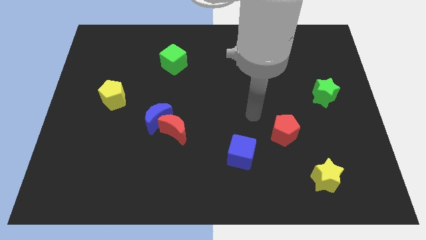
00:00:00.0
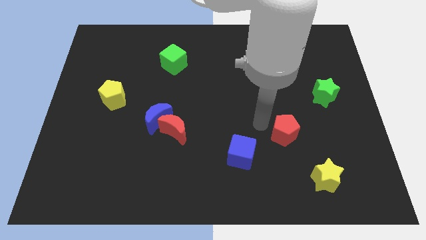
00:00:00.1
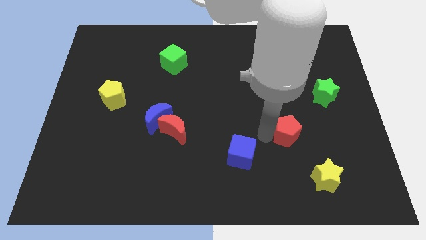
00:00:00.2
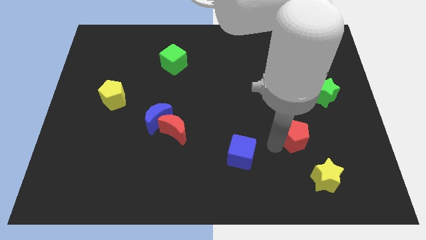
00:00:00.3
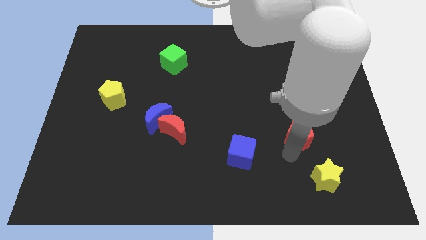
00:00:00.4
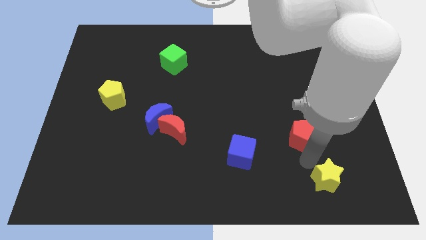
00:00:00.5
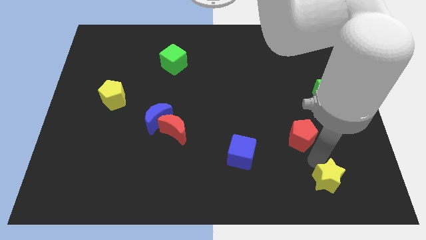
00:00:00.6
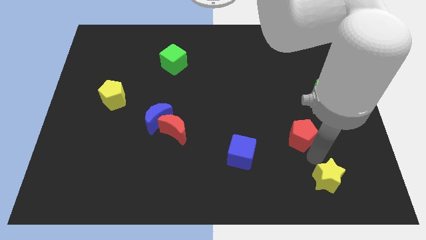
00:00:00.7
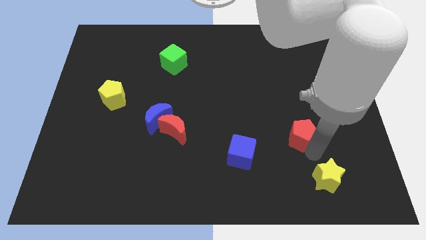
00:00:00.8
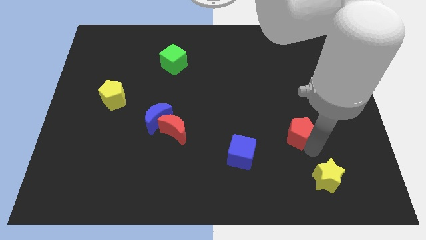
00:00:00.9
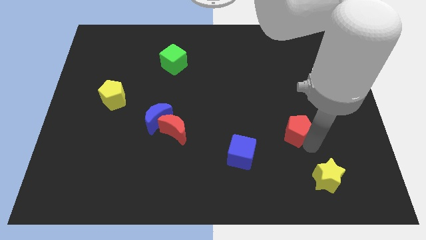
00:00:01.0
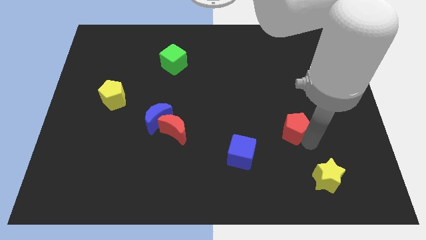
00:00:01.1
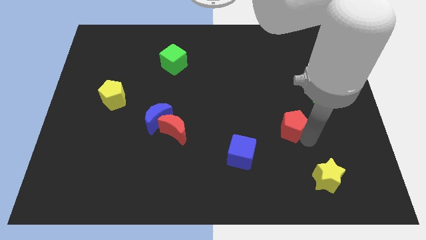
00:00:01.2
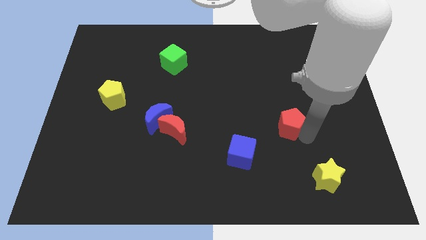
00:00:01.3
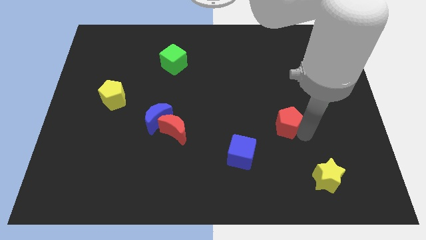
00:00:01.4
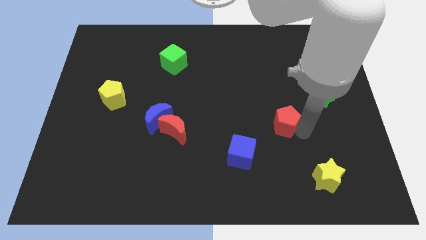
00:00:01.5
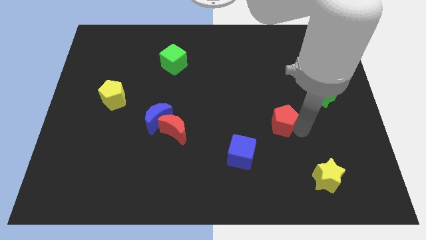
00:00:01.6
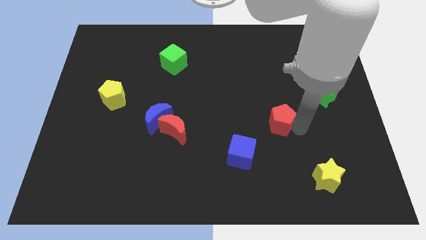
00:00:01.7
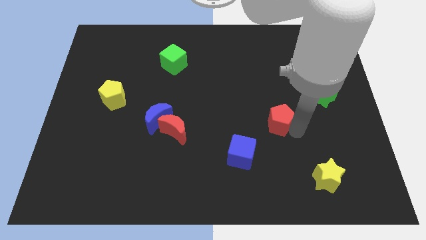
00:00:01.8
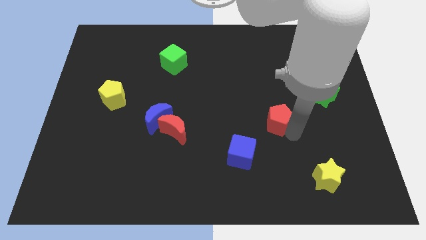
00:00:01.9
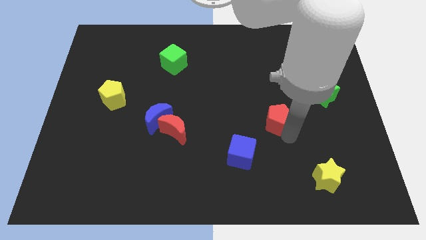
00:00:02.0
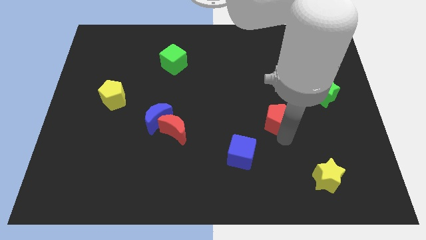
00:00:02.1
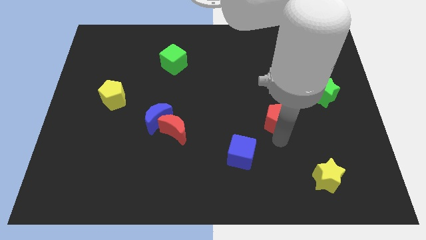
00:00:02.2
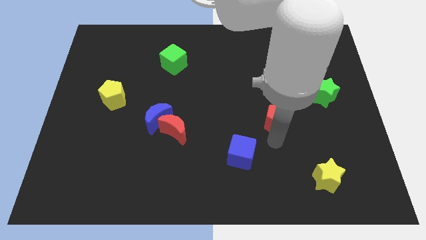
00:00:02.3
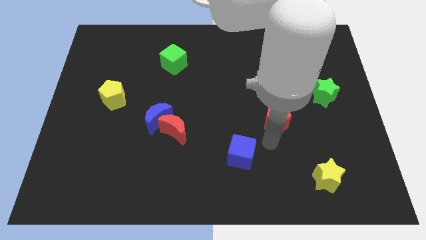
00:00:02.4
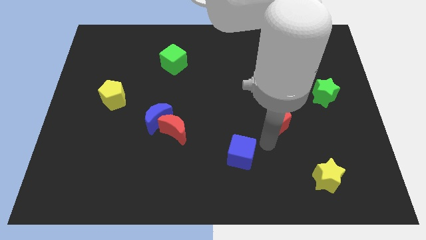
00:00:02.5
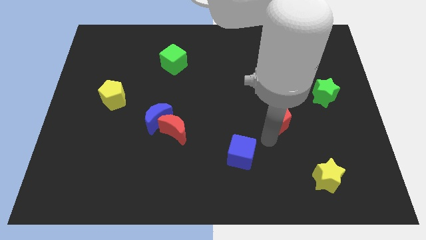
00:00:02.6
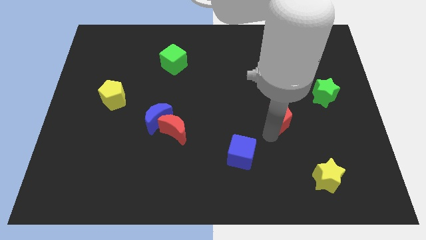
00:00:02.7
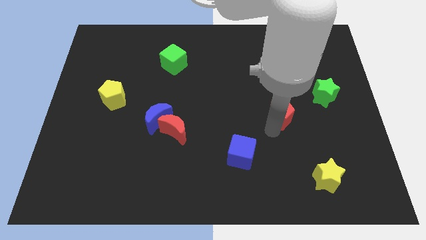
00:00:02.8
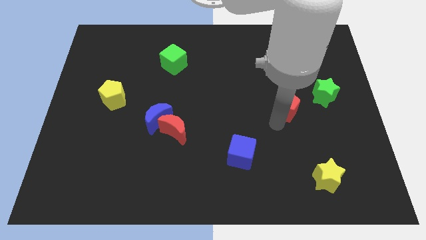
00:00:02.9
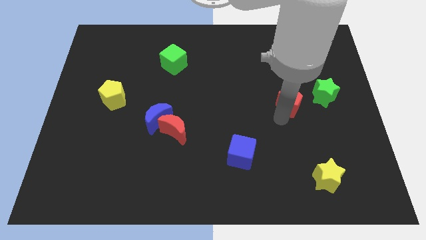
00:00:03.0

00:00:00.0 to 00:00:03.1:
slightly slide the red pentagon upwards

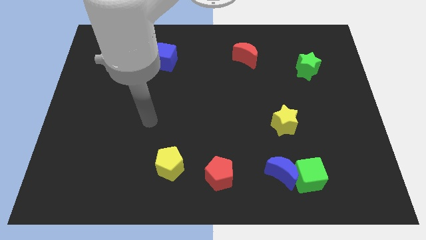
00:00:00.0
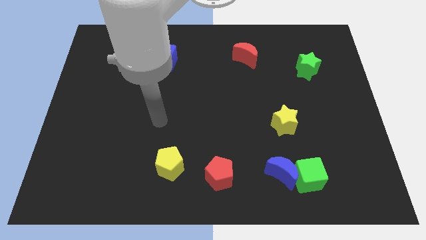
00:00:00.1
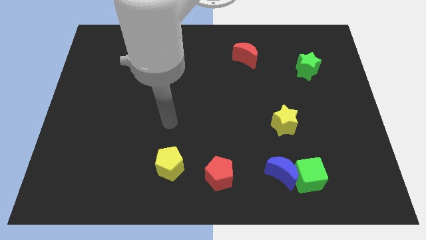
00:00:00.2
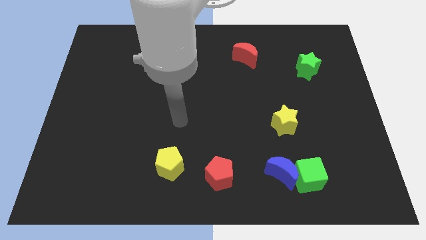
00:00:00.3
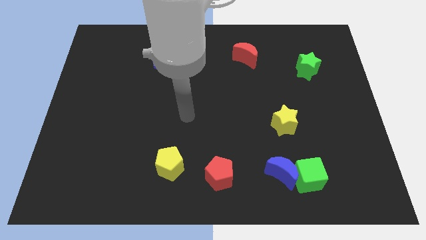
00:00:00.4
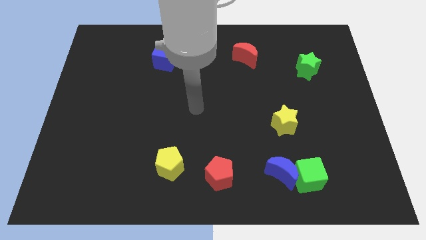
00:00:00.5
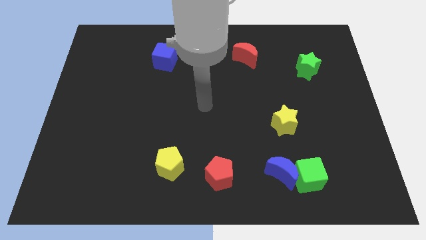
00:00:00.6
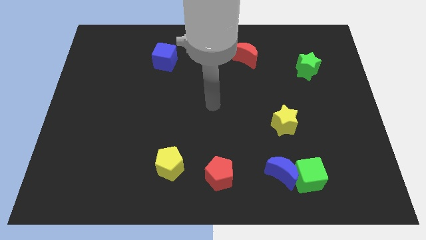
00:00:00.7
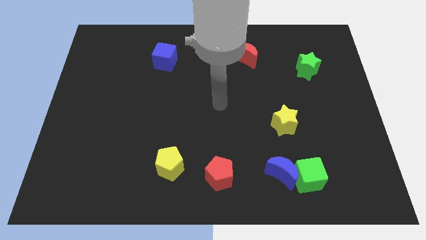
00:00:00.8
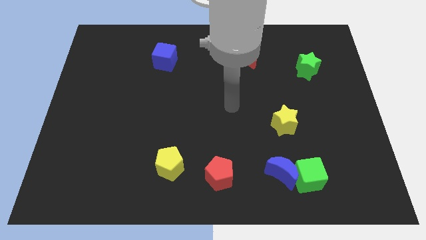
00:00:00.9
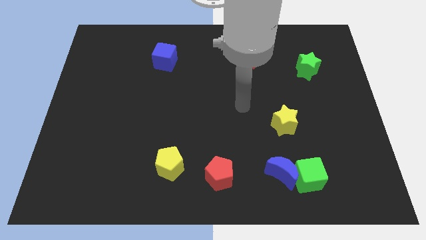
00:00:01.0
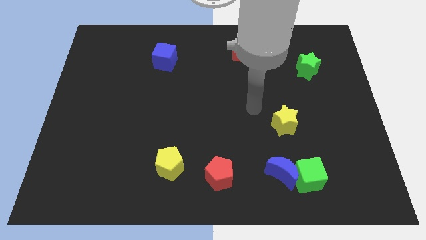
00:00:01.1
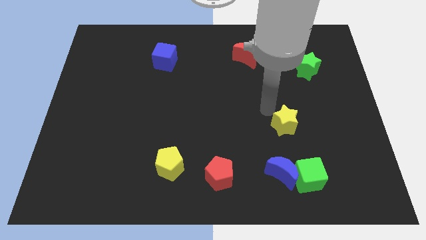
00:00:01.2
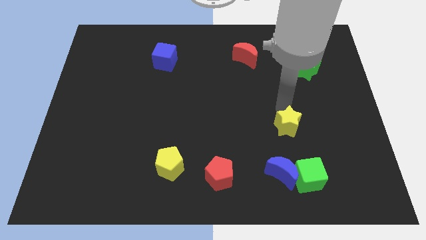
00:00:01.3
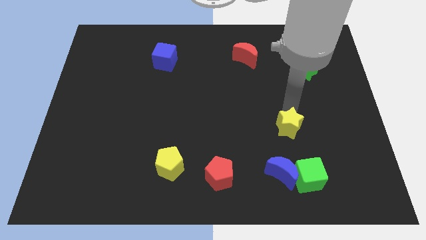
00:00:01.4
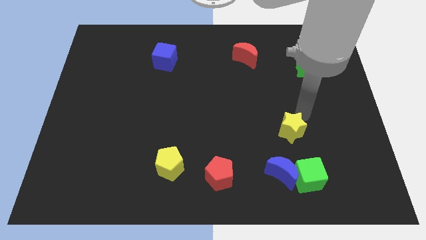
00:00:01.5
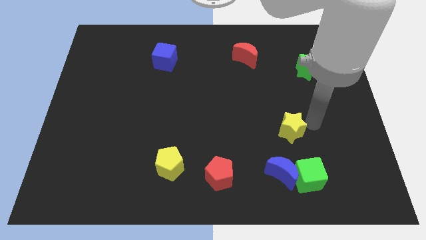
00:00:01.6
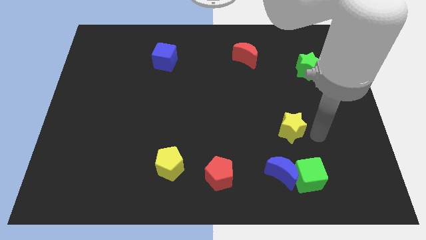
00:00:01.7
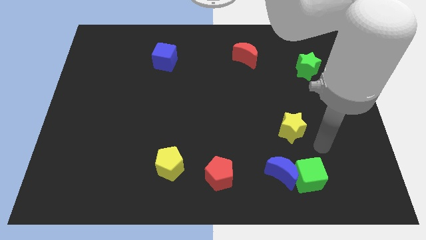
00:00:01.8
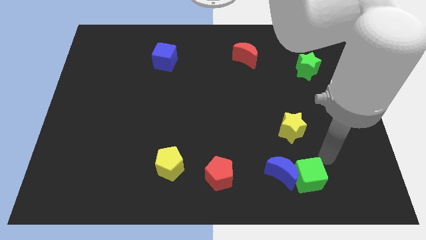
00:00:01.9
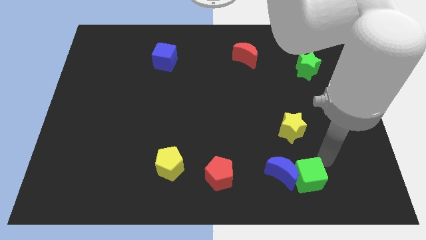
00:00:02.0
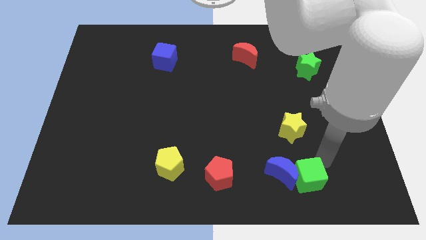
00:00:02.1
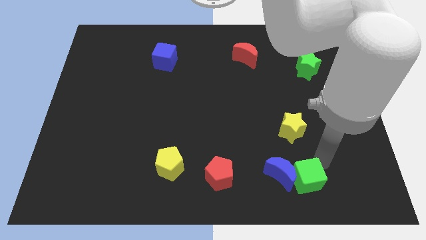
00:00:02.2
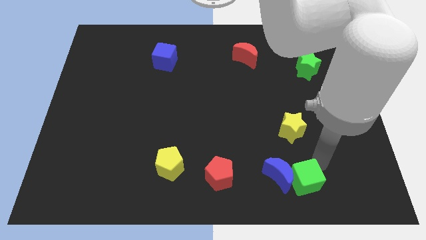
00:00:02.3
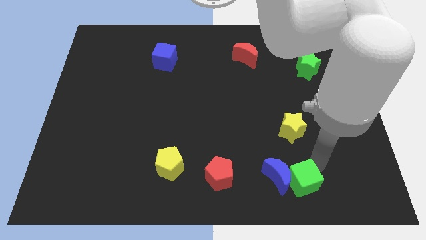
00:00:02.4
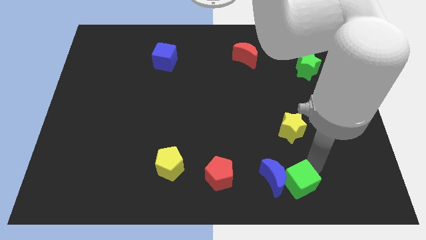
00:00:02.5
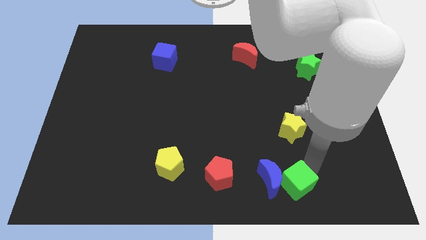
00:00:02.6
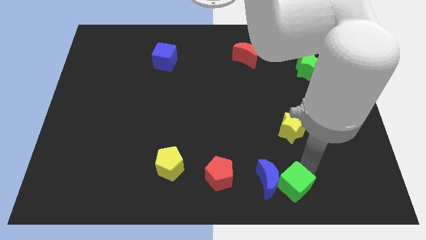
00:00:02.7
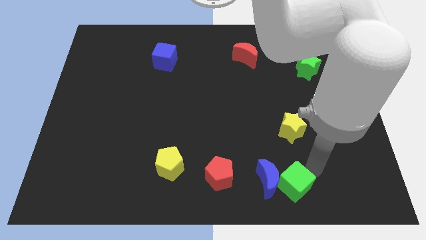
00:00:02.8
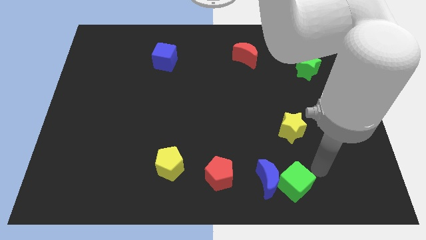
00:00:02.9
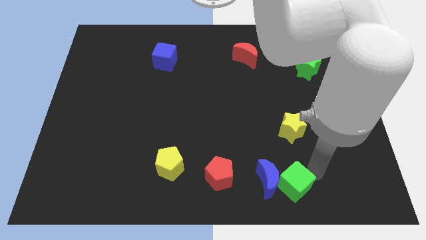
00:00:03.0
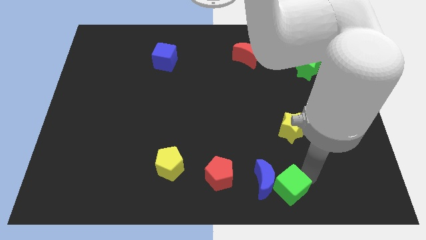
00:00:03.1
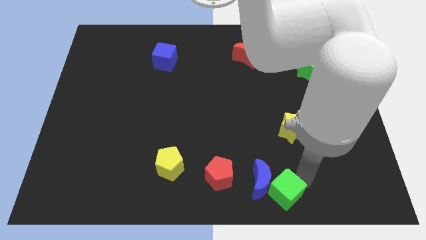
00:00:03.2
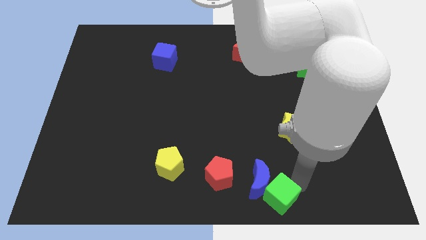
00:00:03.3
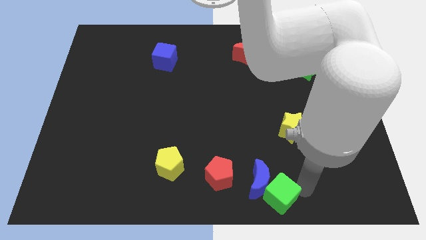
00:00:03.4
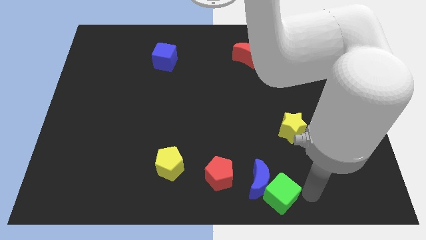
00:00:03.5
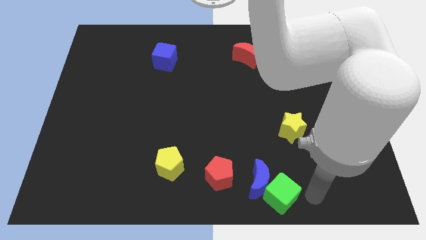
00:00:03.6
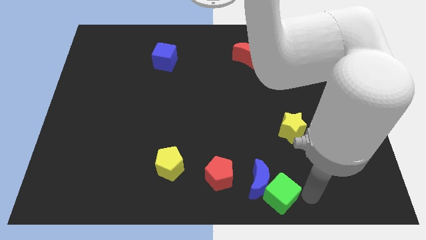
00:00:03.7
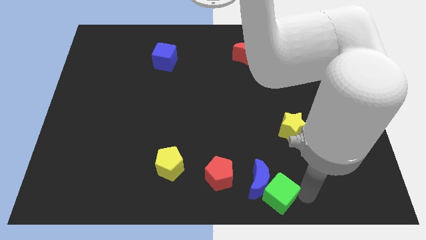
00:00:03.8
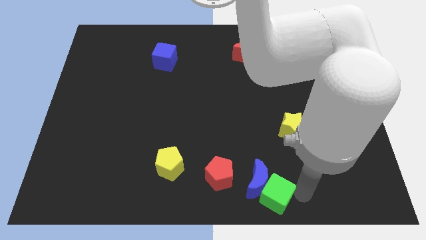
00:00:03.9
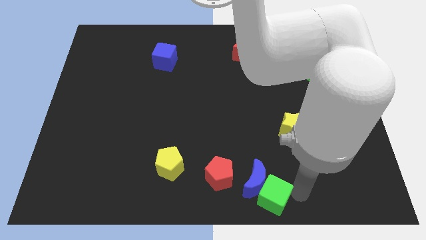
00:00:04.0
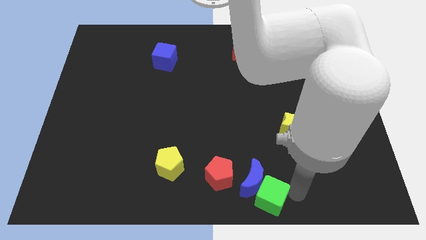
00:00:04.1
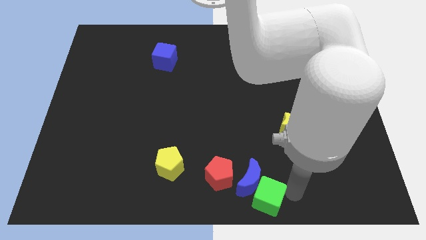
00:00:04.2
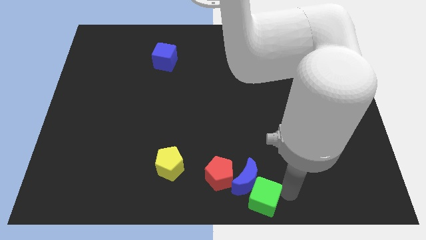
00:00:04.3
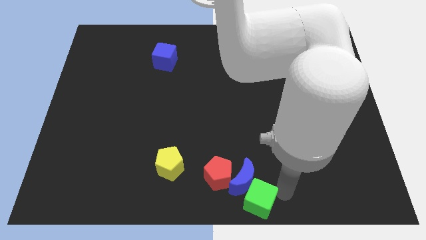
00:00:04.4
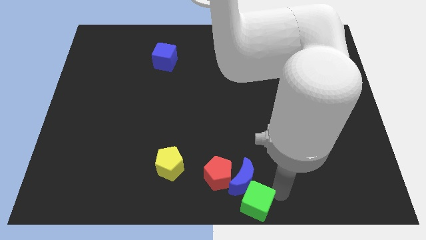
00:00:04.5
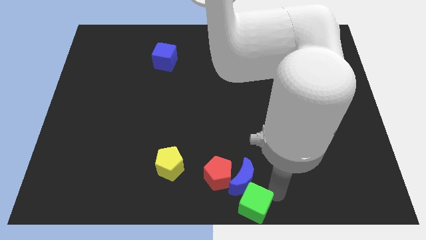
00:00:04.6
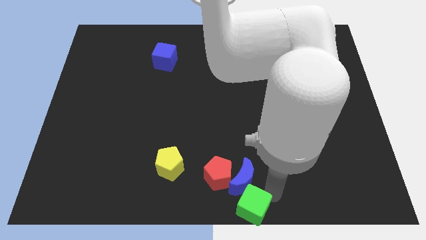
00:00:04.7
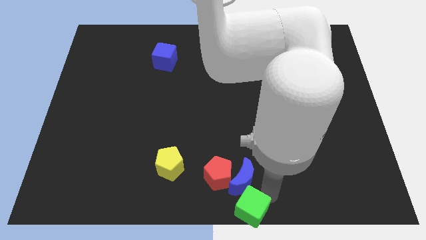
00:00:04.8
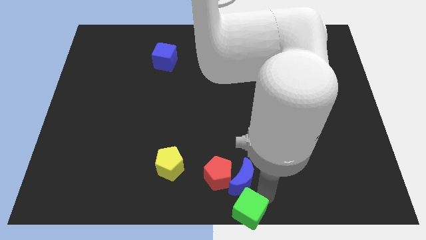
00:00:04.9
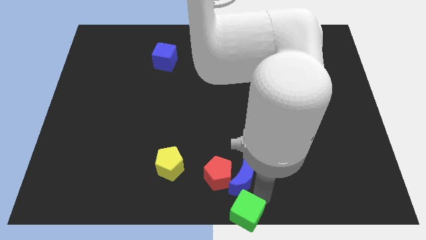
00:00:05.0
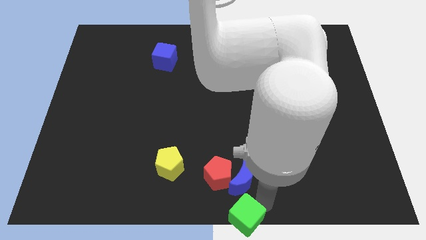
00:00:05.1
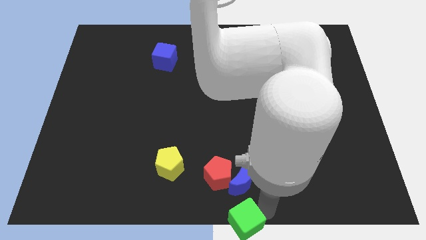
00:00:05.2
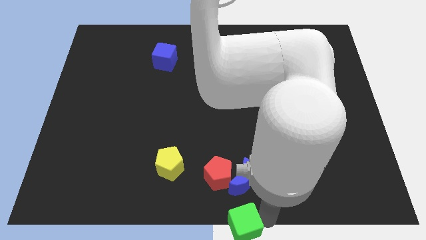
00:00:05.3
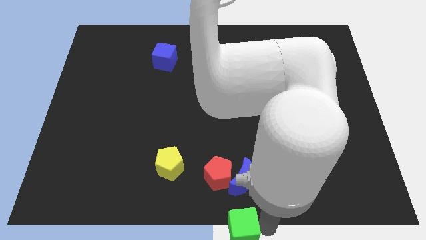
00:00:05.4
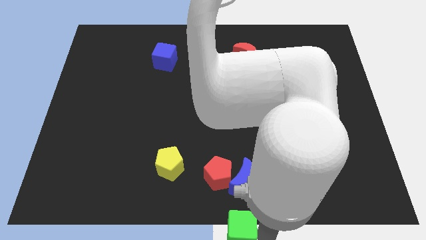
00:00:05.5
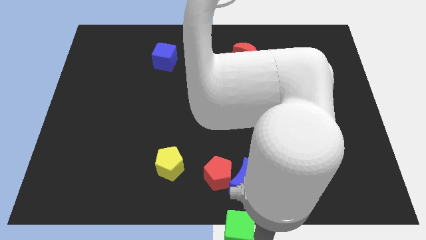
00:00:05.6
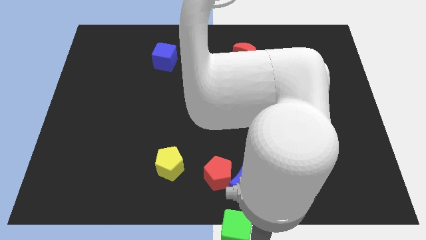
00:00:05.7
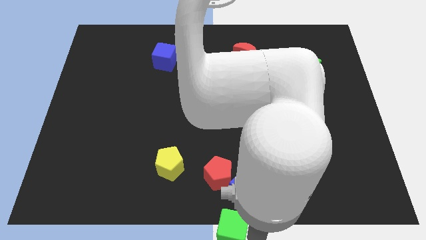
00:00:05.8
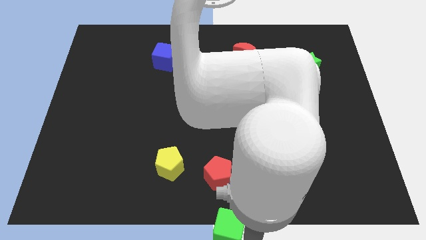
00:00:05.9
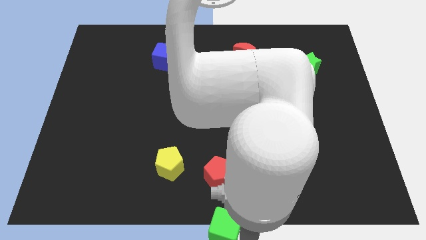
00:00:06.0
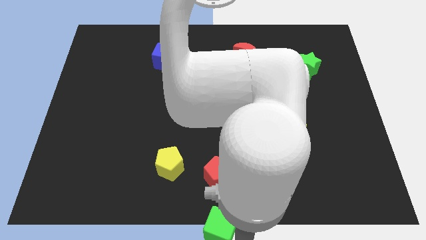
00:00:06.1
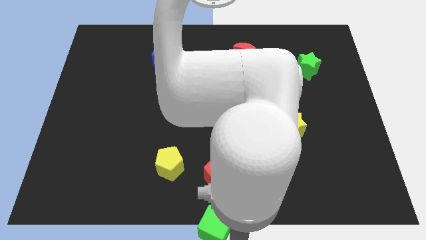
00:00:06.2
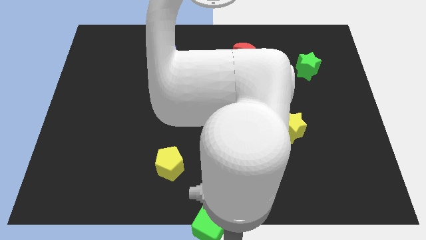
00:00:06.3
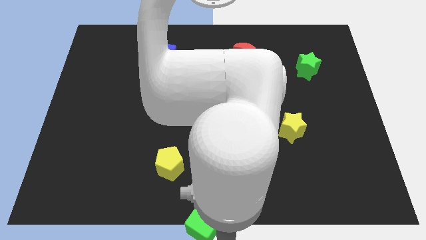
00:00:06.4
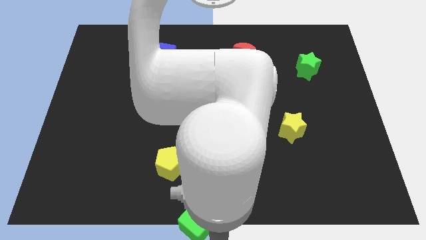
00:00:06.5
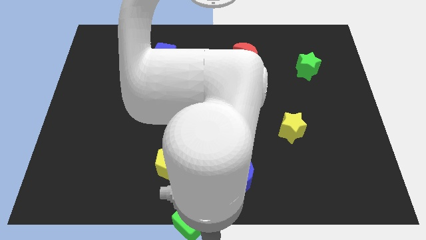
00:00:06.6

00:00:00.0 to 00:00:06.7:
move the green cube left
